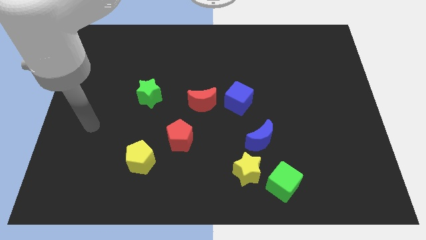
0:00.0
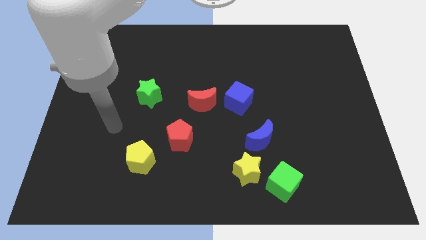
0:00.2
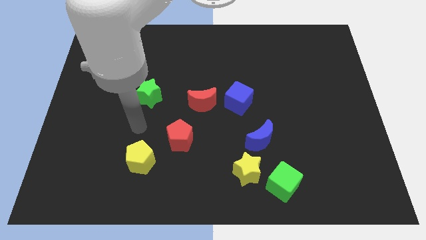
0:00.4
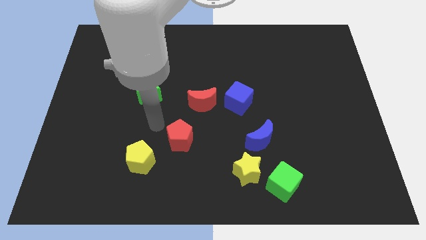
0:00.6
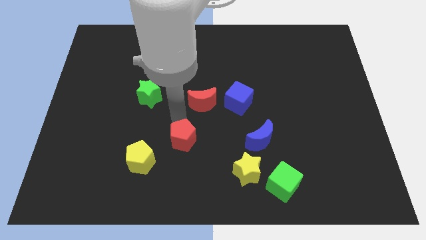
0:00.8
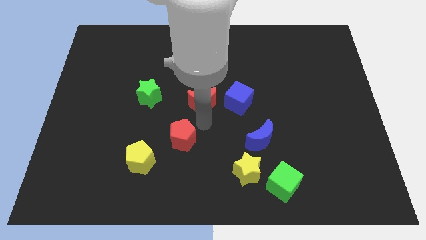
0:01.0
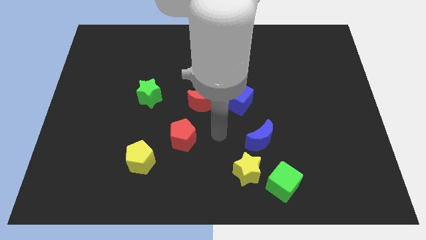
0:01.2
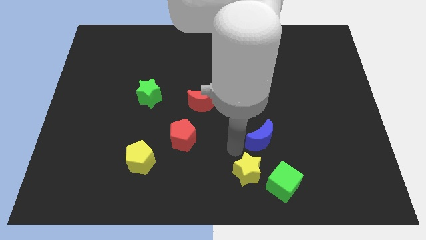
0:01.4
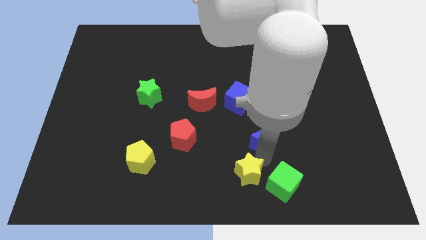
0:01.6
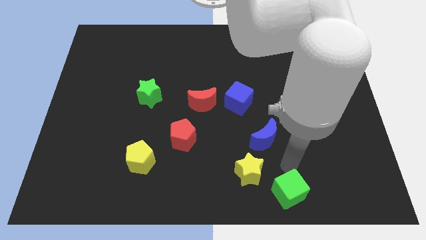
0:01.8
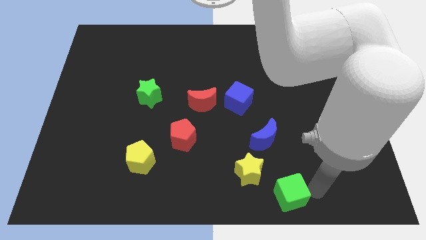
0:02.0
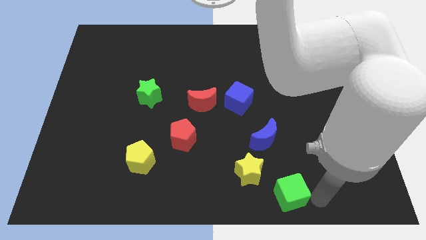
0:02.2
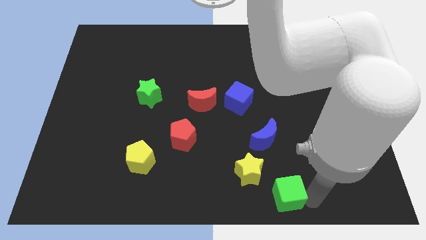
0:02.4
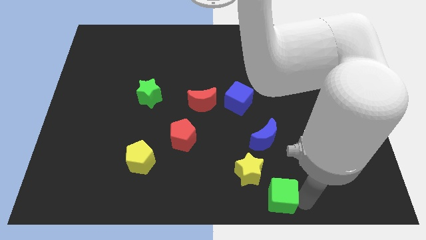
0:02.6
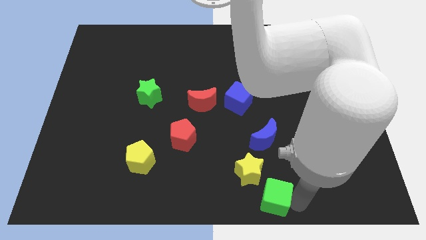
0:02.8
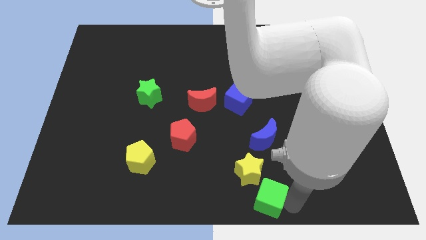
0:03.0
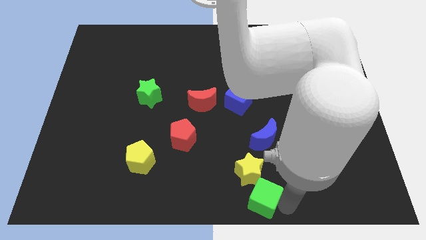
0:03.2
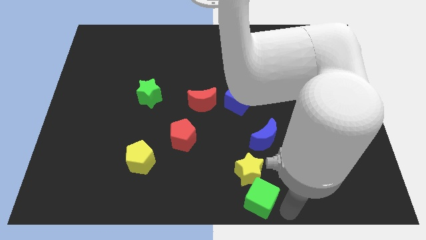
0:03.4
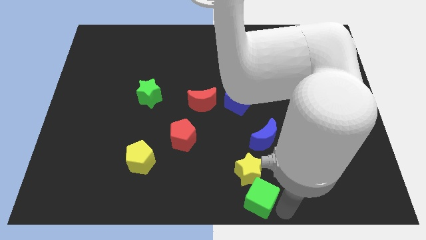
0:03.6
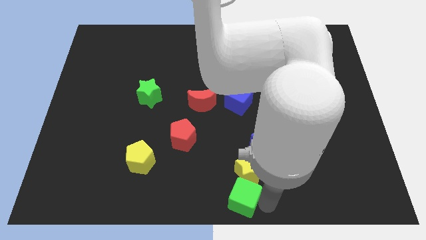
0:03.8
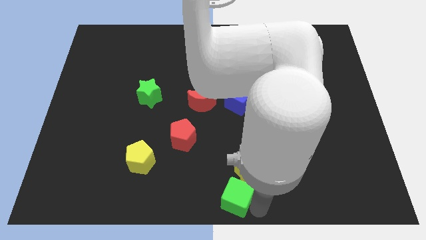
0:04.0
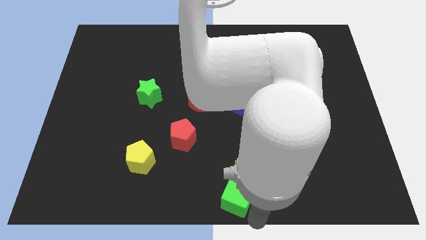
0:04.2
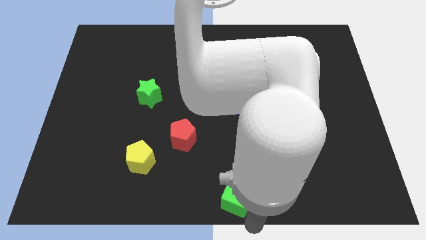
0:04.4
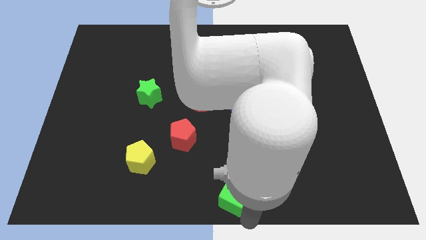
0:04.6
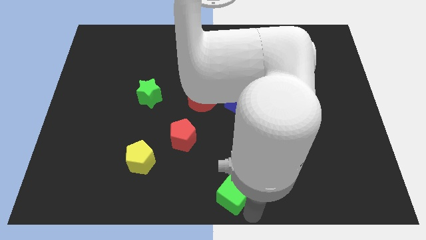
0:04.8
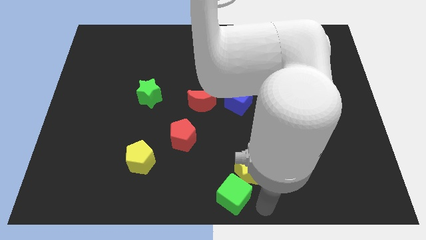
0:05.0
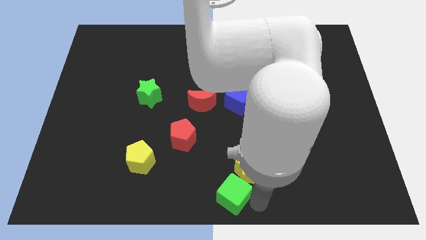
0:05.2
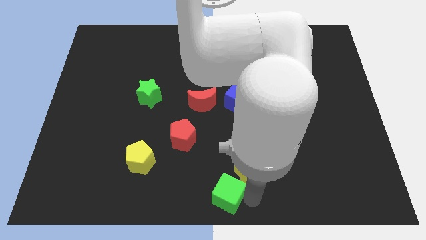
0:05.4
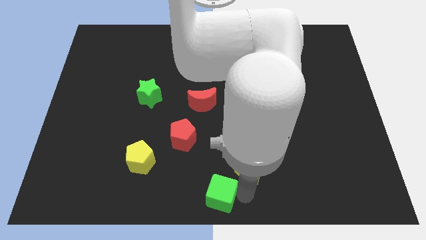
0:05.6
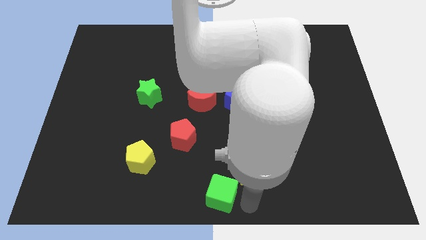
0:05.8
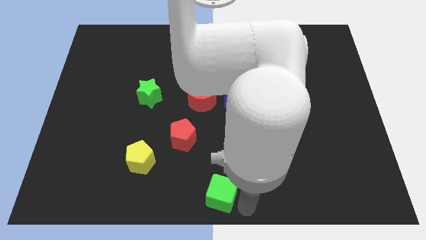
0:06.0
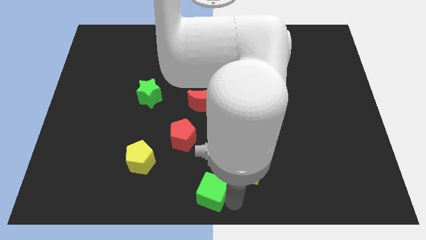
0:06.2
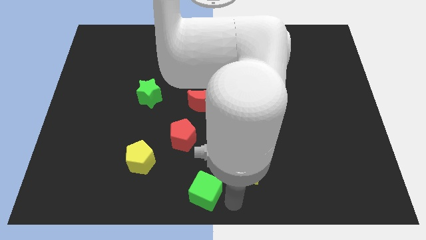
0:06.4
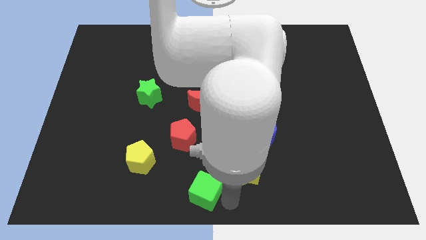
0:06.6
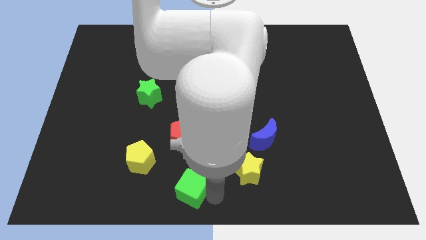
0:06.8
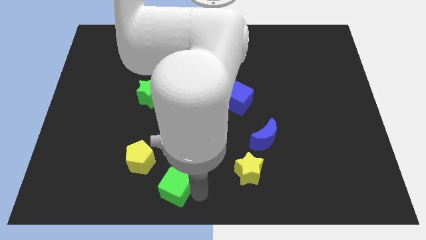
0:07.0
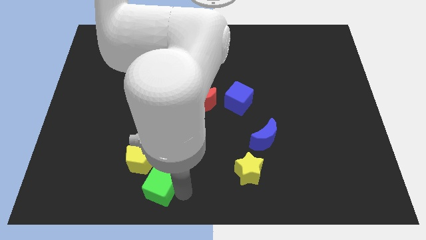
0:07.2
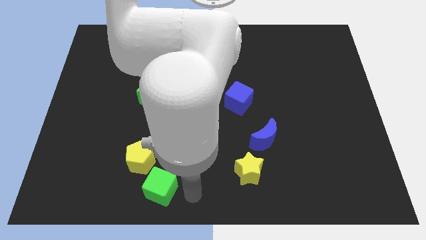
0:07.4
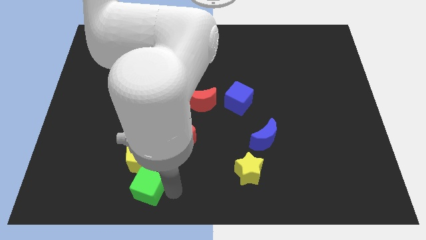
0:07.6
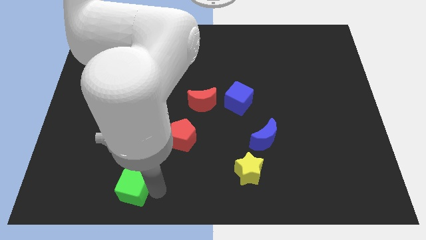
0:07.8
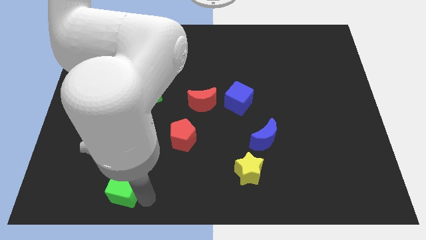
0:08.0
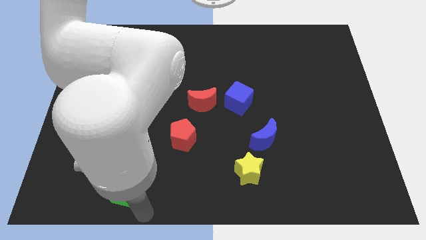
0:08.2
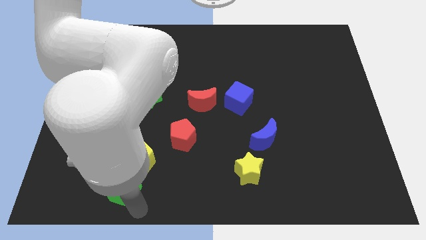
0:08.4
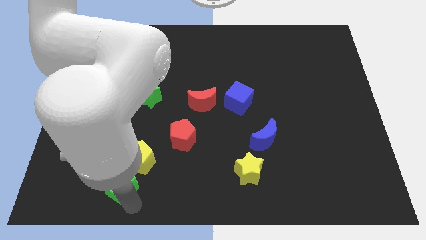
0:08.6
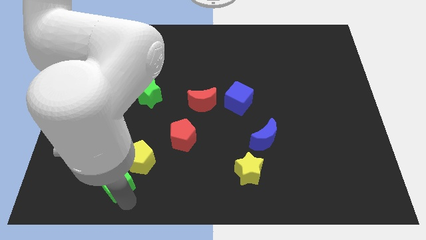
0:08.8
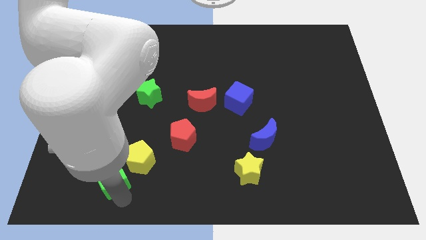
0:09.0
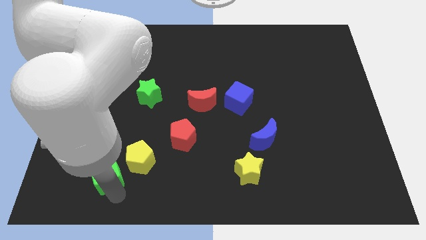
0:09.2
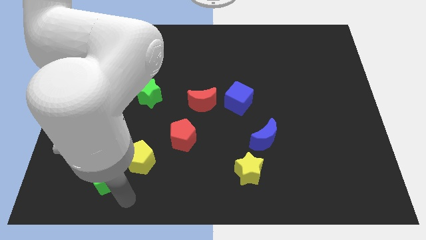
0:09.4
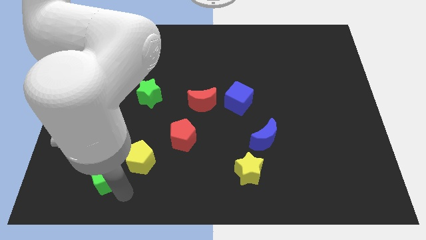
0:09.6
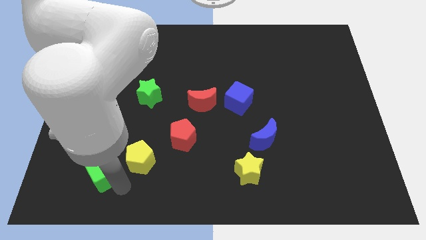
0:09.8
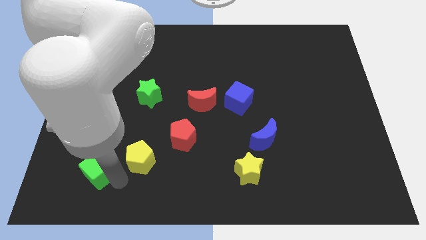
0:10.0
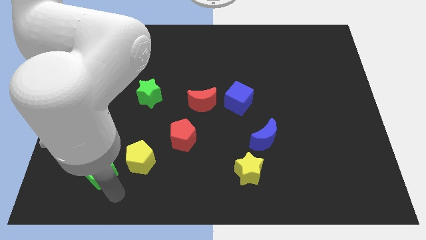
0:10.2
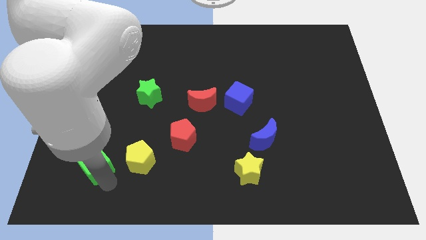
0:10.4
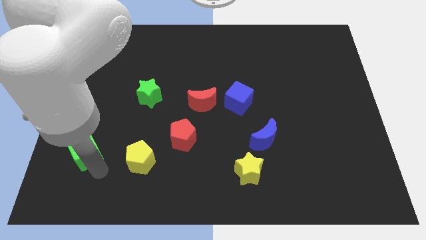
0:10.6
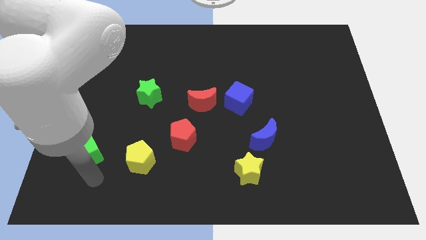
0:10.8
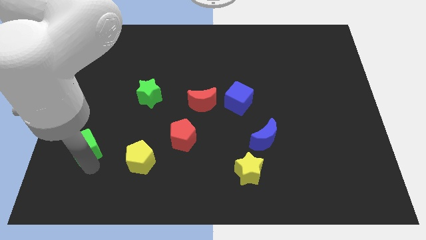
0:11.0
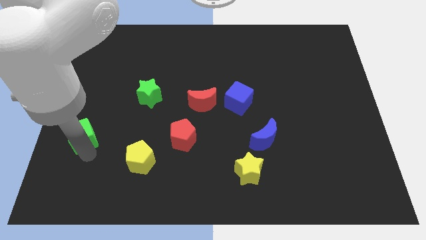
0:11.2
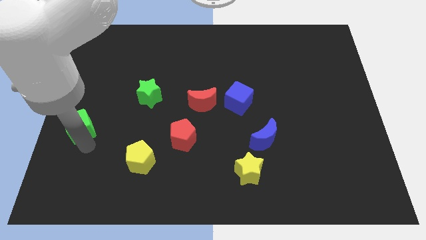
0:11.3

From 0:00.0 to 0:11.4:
move the green cube to the left side of the board
